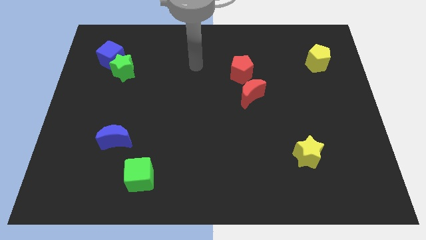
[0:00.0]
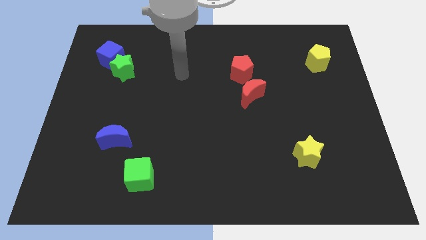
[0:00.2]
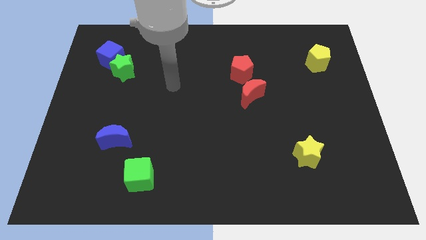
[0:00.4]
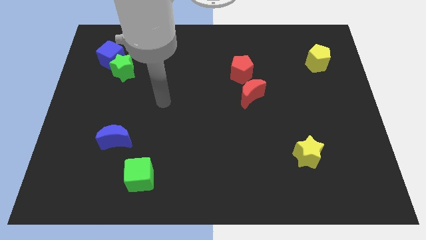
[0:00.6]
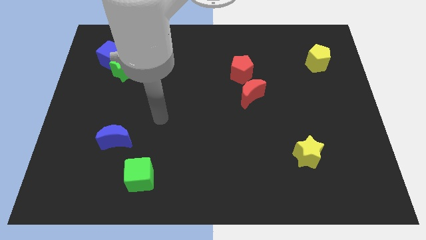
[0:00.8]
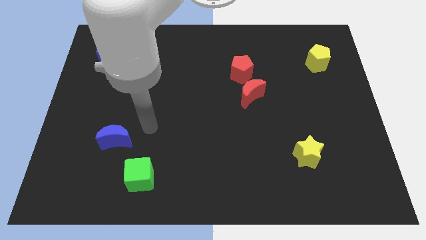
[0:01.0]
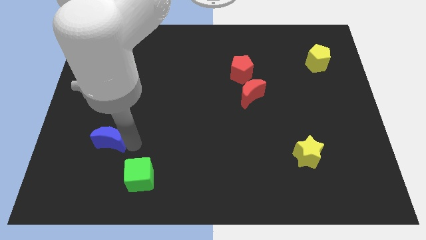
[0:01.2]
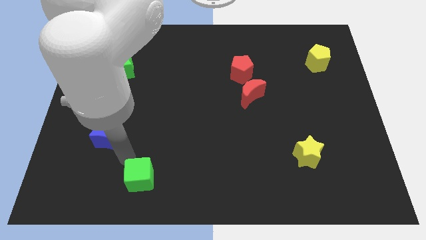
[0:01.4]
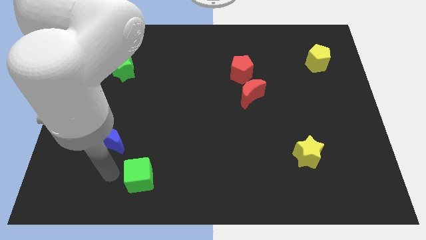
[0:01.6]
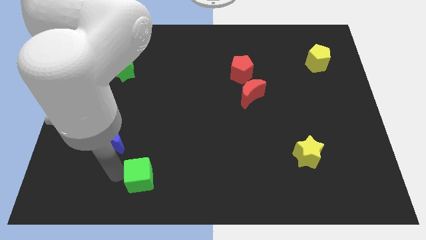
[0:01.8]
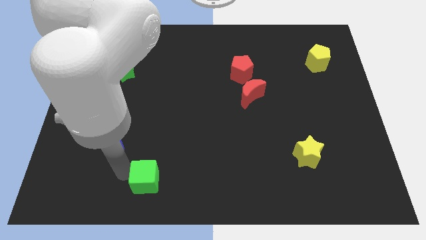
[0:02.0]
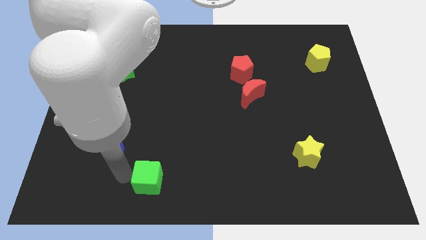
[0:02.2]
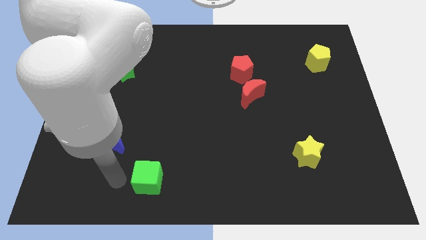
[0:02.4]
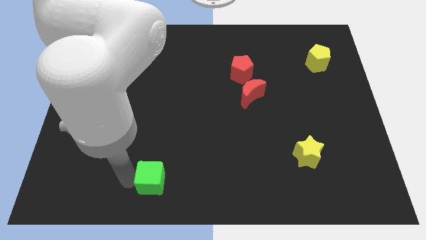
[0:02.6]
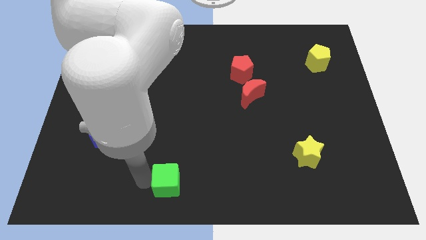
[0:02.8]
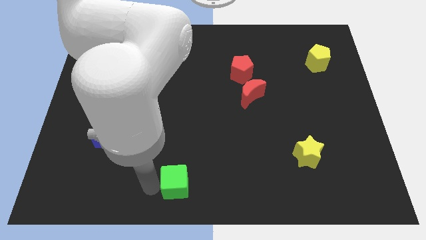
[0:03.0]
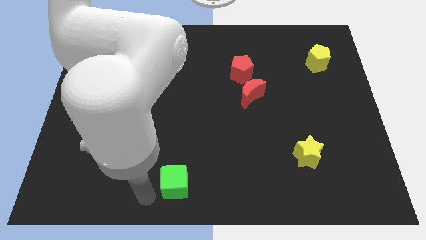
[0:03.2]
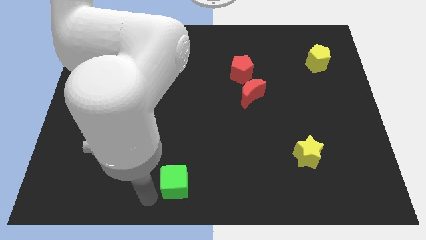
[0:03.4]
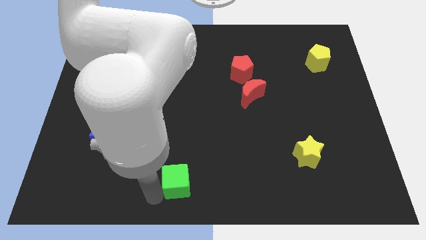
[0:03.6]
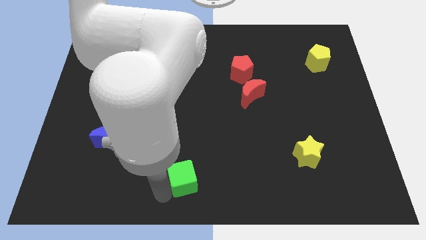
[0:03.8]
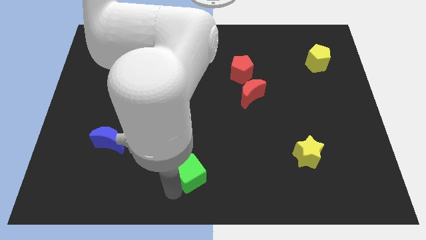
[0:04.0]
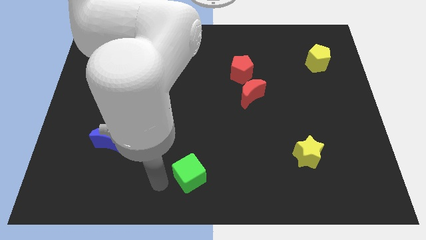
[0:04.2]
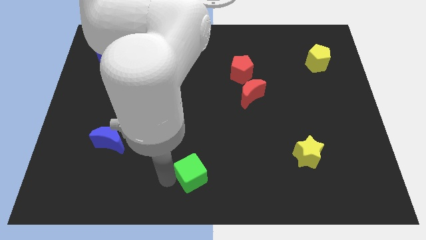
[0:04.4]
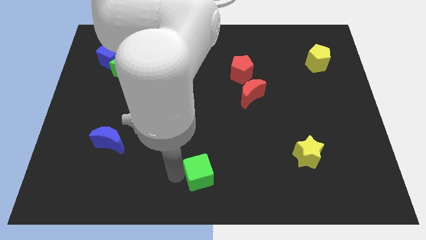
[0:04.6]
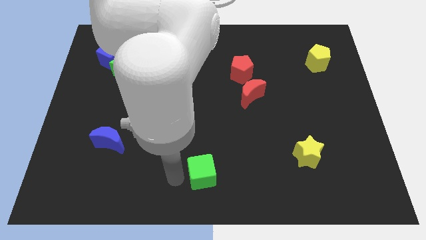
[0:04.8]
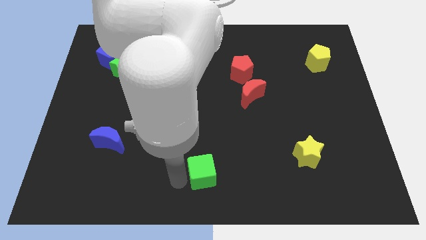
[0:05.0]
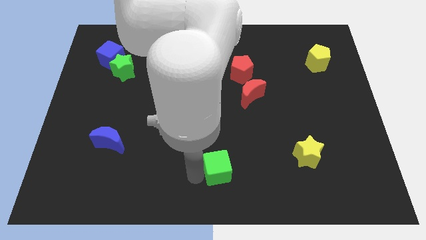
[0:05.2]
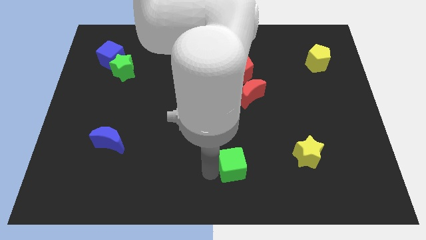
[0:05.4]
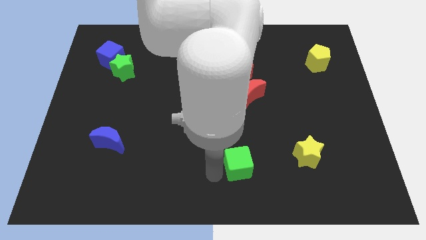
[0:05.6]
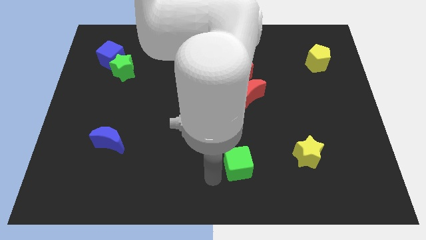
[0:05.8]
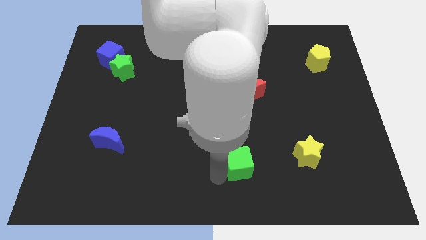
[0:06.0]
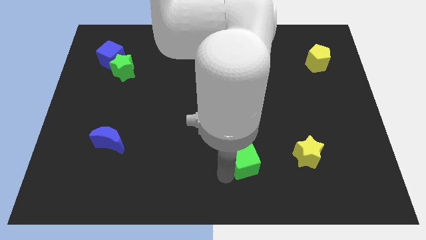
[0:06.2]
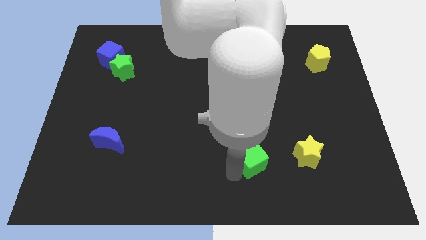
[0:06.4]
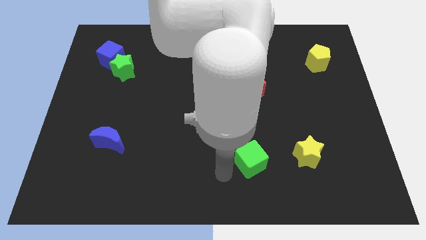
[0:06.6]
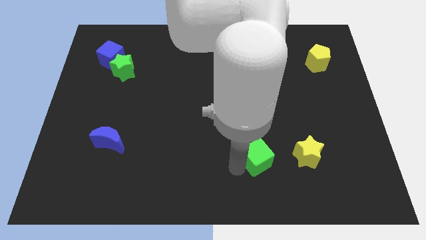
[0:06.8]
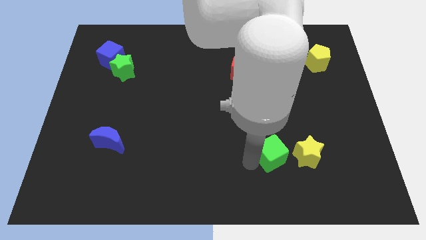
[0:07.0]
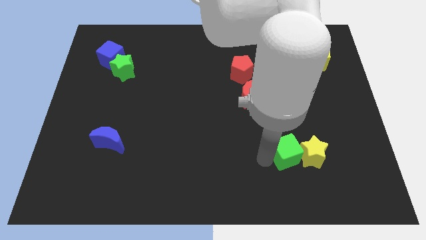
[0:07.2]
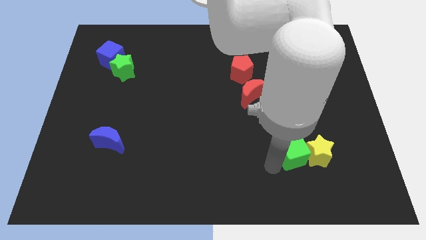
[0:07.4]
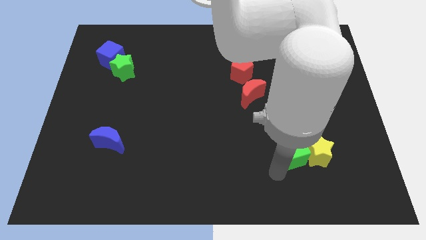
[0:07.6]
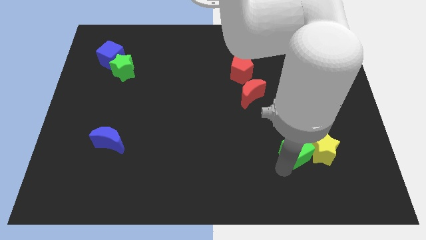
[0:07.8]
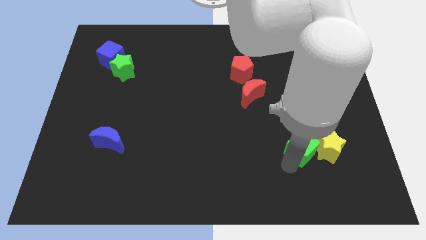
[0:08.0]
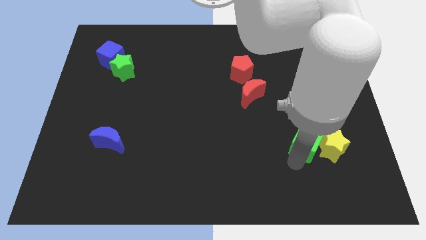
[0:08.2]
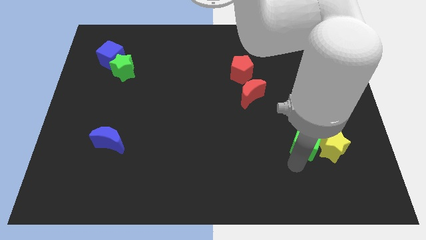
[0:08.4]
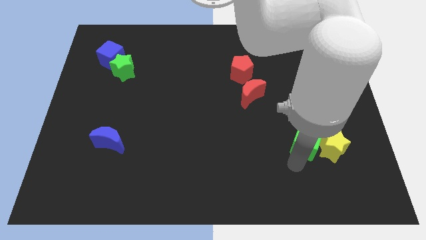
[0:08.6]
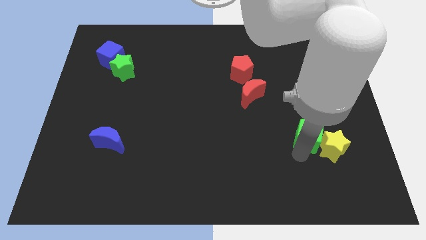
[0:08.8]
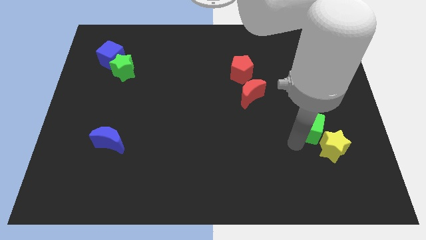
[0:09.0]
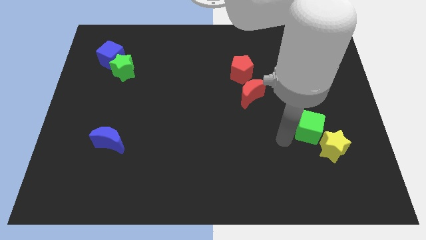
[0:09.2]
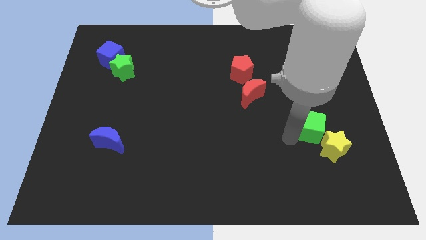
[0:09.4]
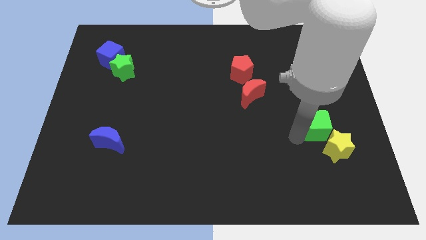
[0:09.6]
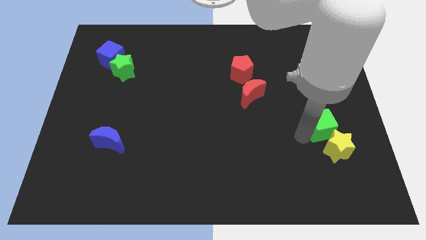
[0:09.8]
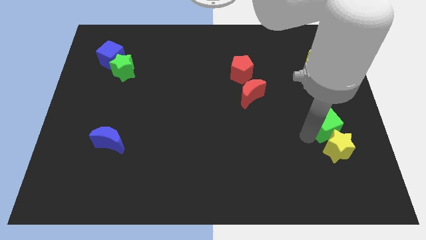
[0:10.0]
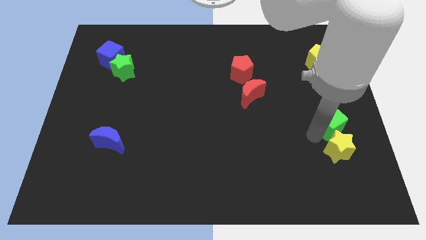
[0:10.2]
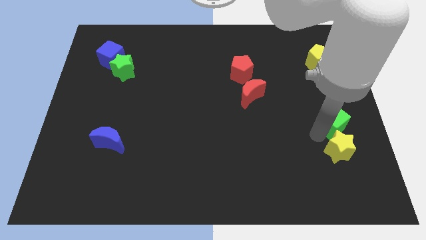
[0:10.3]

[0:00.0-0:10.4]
move the green cube to the right side

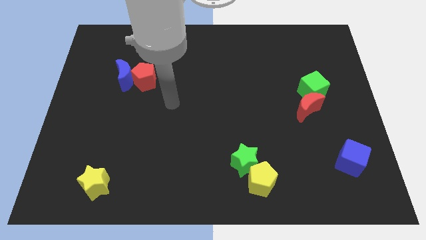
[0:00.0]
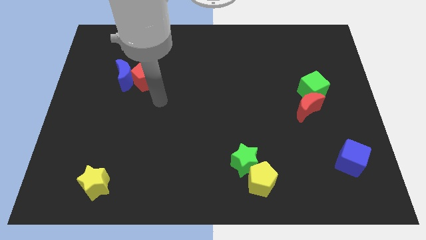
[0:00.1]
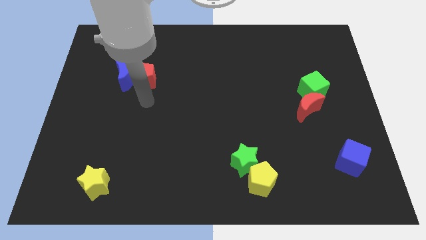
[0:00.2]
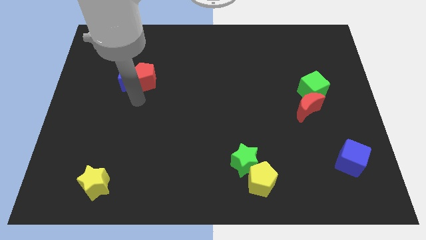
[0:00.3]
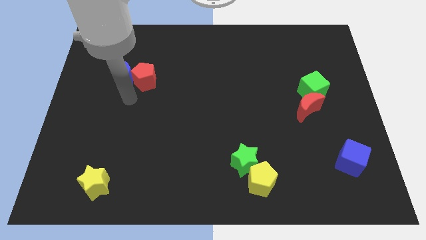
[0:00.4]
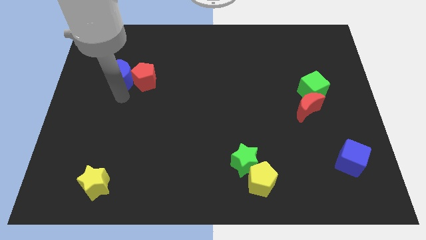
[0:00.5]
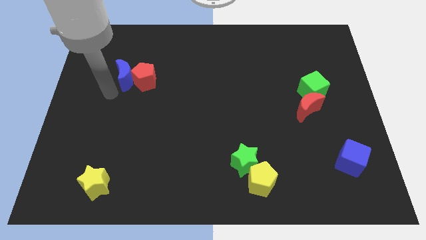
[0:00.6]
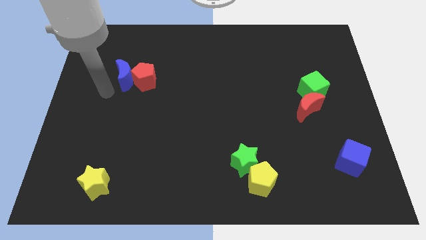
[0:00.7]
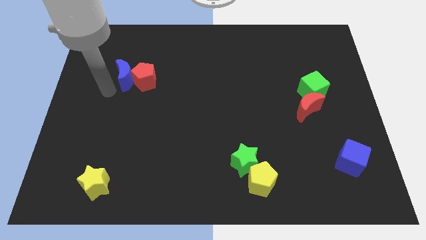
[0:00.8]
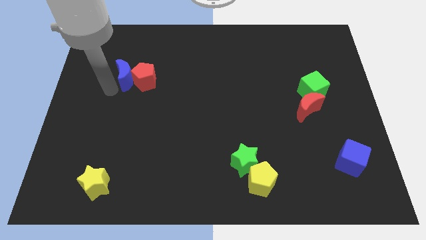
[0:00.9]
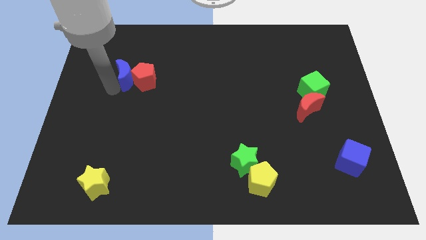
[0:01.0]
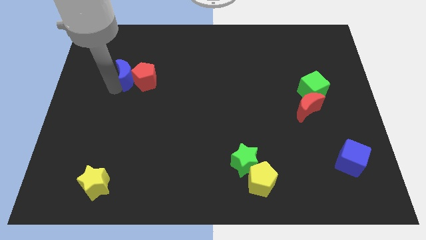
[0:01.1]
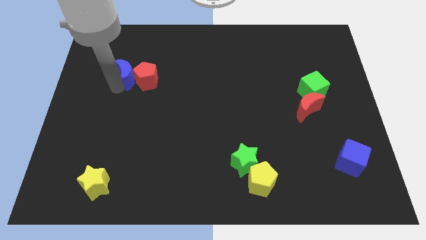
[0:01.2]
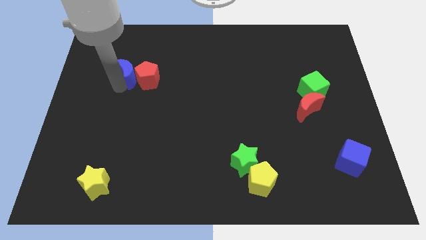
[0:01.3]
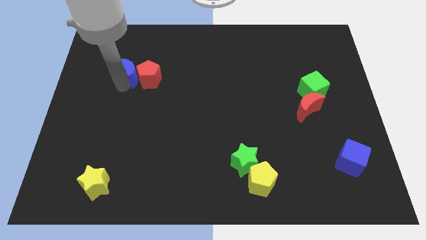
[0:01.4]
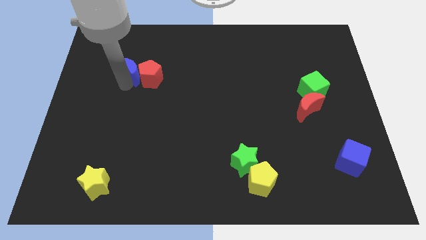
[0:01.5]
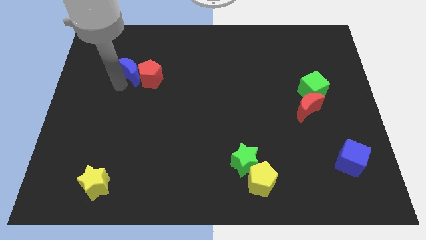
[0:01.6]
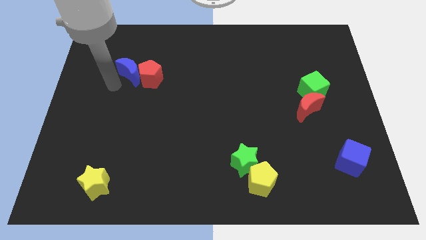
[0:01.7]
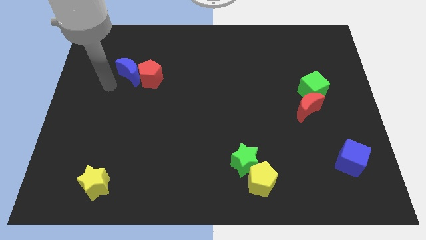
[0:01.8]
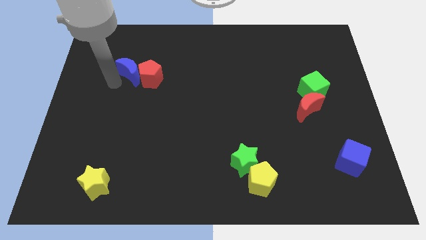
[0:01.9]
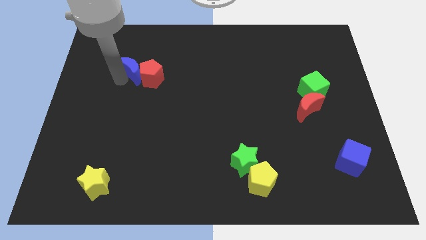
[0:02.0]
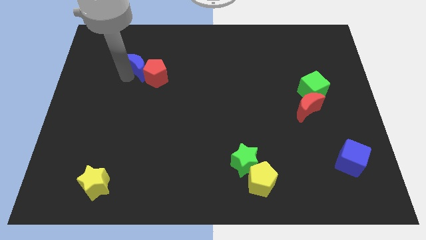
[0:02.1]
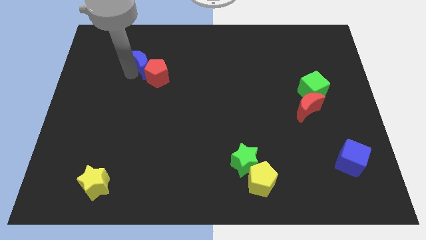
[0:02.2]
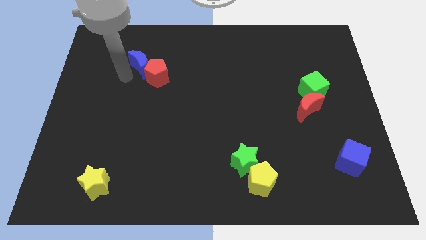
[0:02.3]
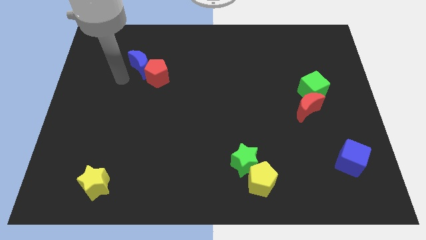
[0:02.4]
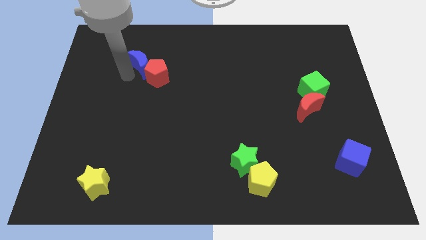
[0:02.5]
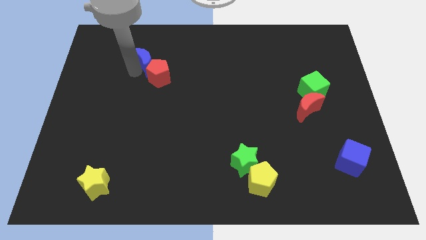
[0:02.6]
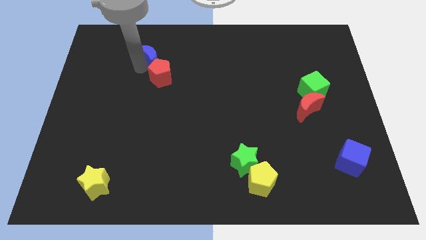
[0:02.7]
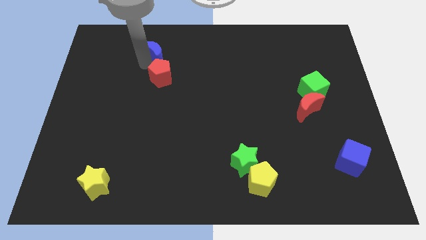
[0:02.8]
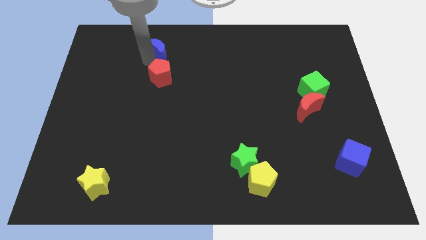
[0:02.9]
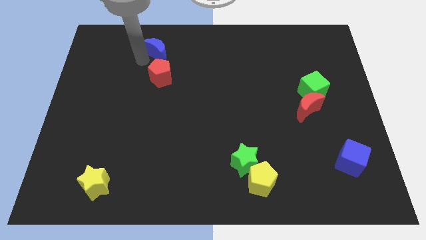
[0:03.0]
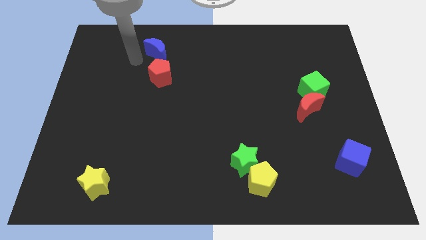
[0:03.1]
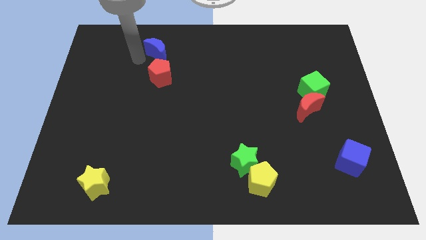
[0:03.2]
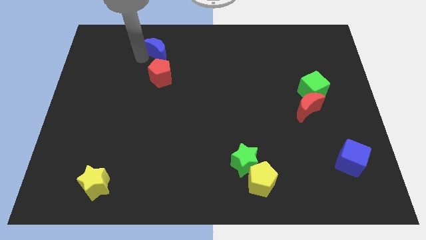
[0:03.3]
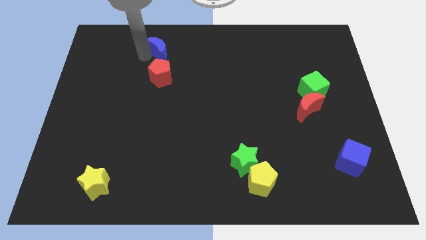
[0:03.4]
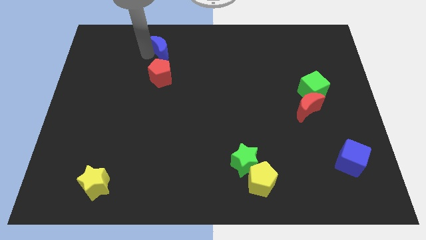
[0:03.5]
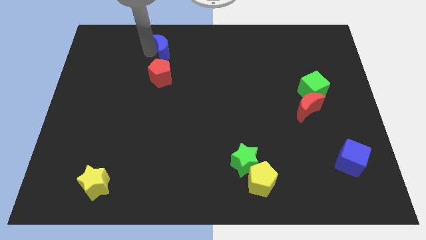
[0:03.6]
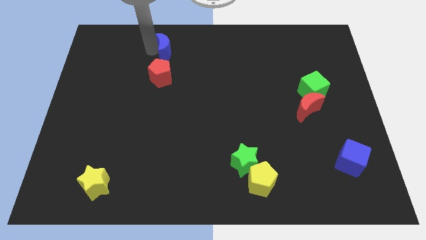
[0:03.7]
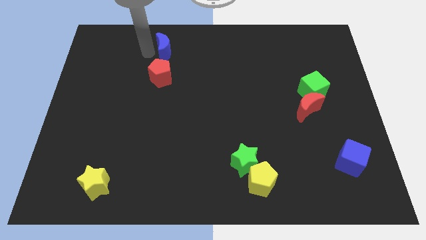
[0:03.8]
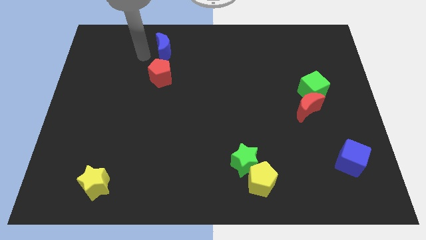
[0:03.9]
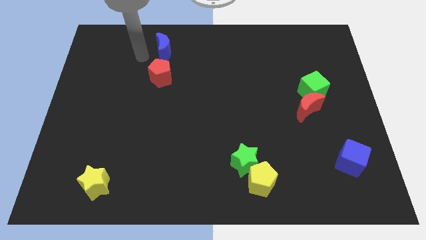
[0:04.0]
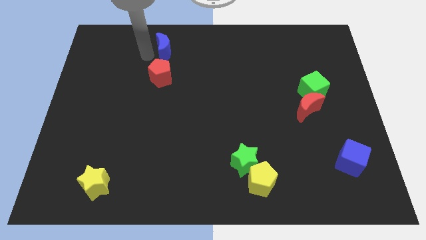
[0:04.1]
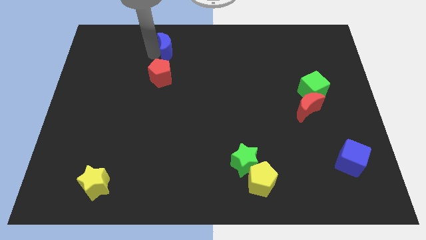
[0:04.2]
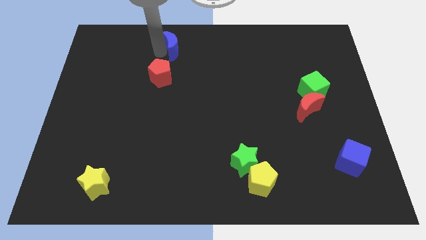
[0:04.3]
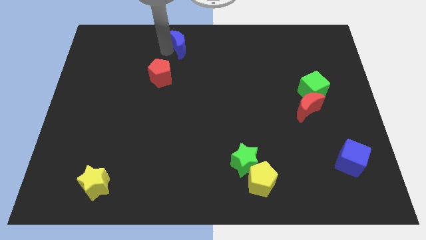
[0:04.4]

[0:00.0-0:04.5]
move the blue moon to the top
